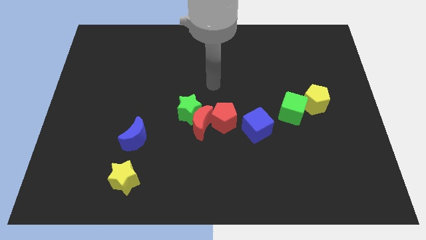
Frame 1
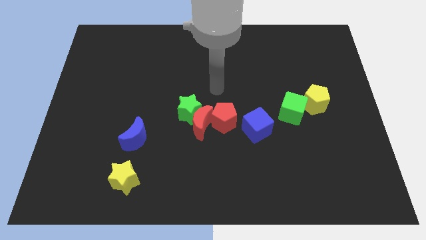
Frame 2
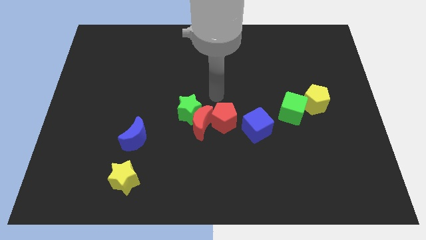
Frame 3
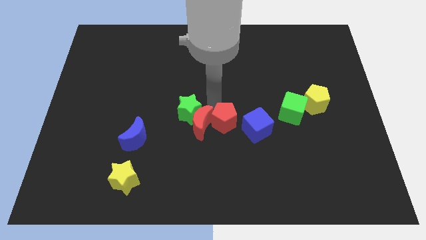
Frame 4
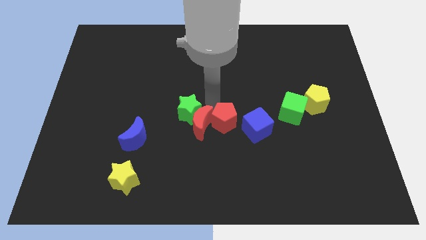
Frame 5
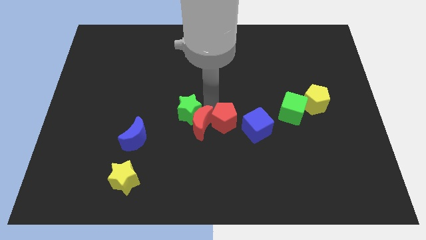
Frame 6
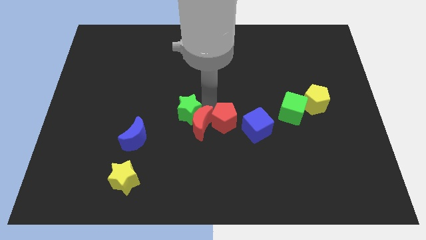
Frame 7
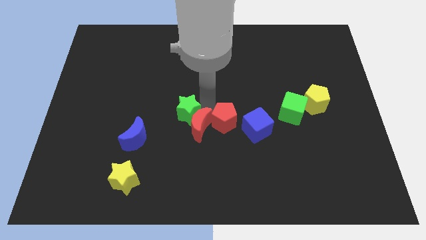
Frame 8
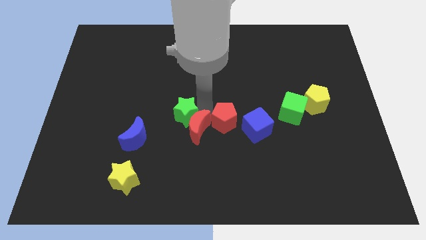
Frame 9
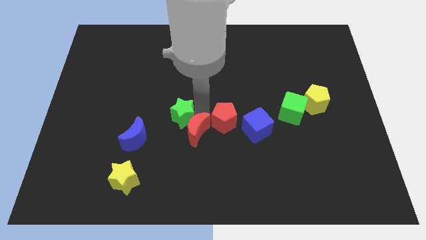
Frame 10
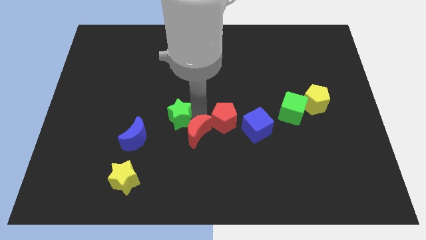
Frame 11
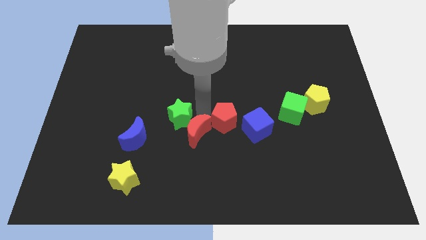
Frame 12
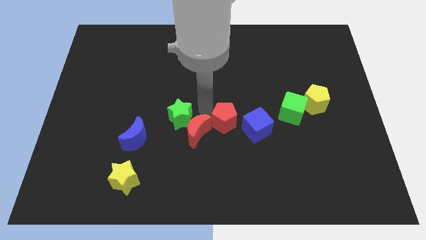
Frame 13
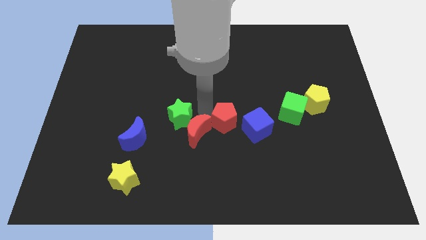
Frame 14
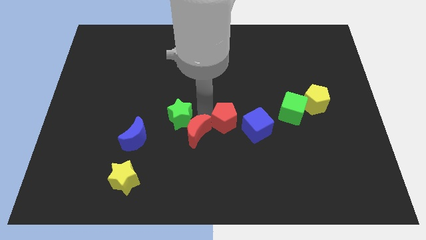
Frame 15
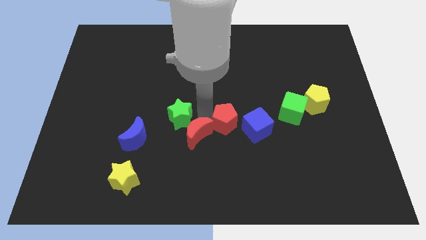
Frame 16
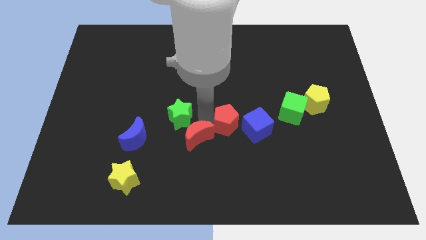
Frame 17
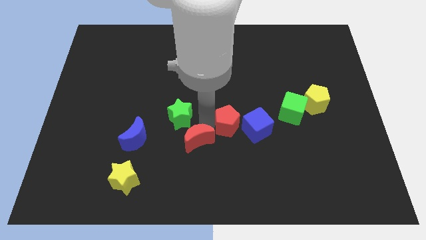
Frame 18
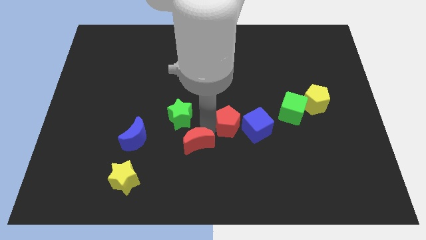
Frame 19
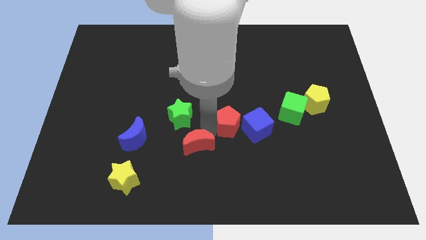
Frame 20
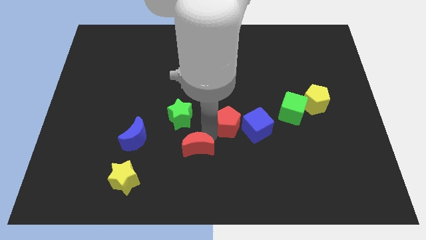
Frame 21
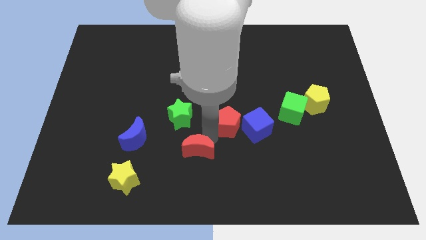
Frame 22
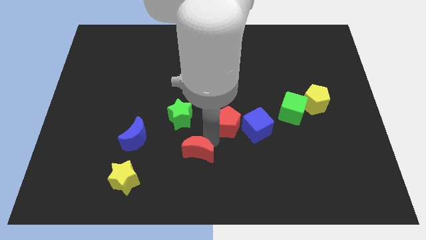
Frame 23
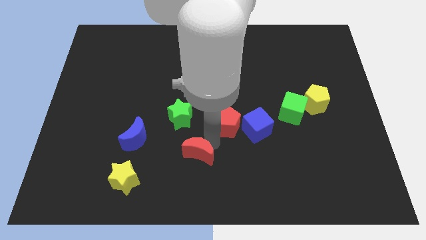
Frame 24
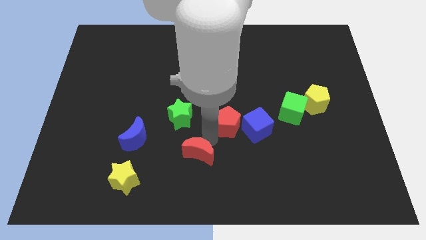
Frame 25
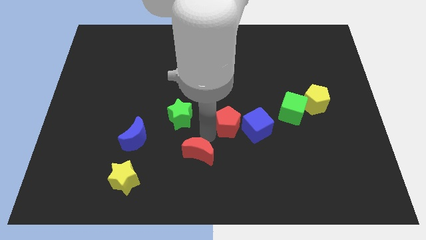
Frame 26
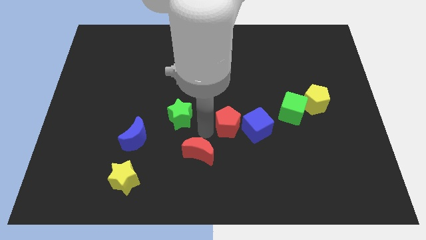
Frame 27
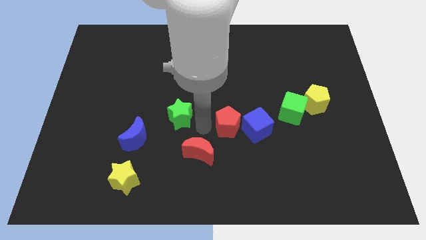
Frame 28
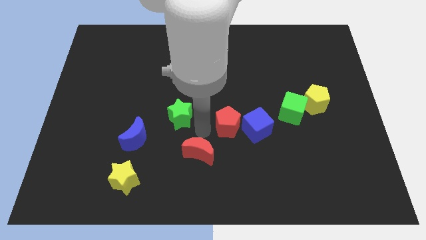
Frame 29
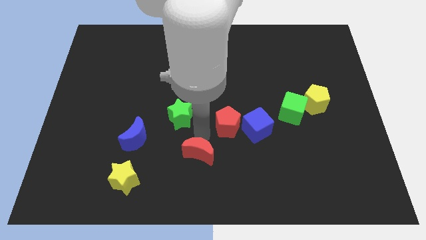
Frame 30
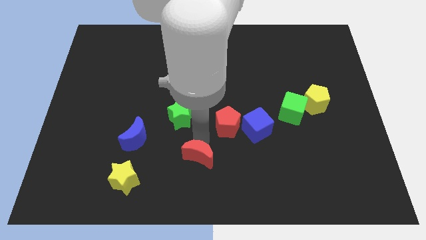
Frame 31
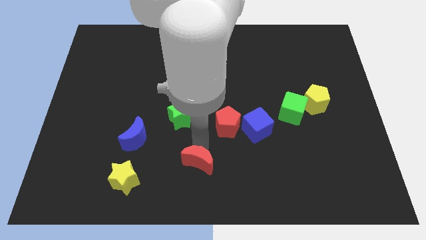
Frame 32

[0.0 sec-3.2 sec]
move the red moon away from the green star and red pentagon

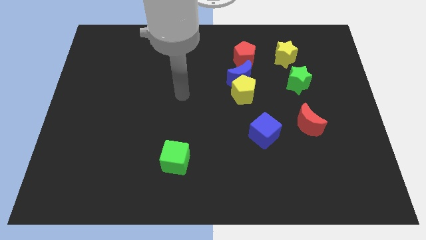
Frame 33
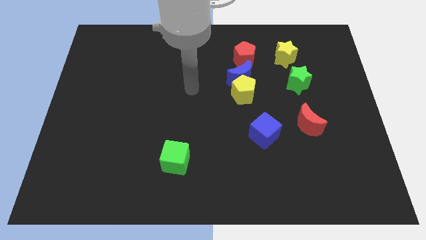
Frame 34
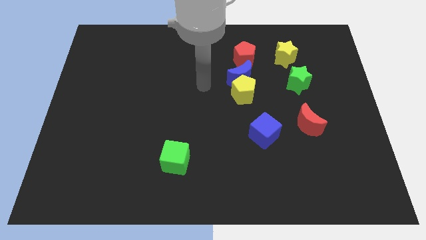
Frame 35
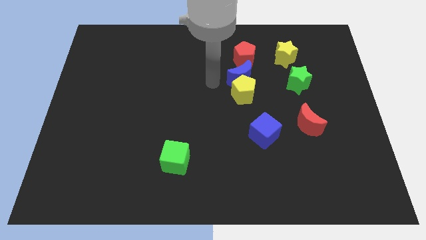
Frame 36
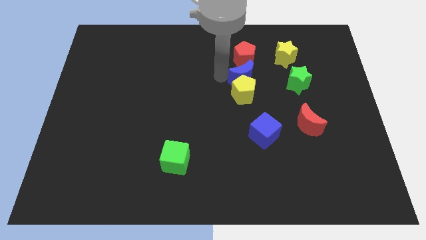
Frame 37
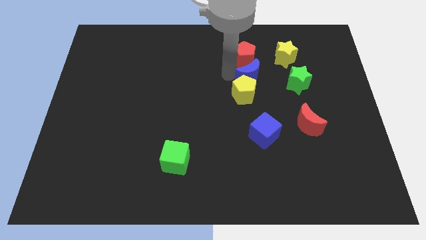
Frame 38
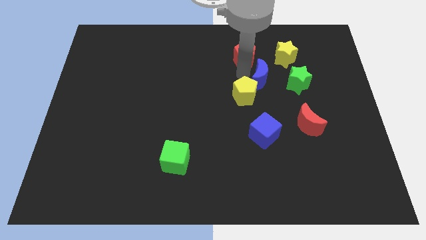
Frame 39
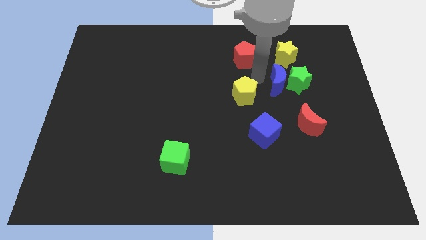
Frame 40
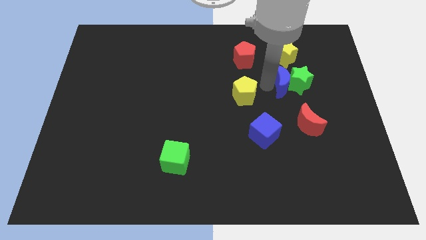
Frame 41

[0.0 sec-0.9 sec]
pull the yellow pentagon apart from the blue moon

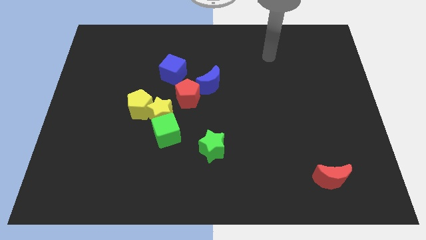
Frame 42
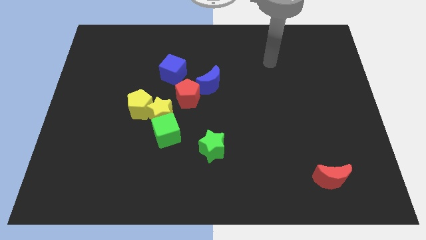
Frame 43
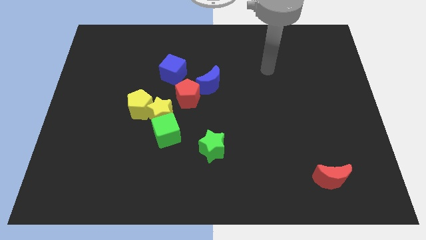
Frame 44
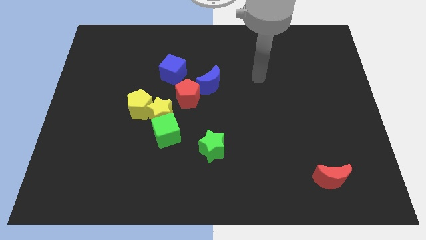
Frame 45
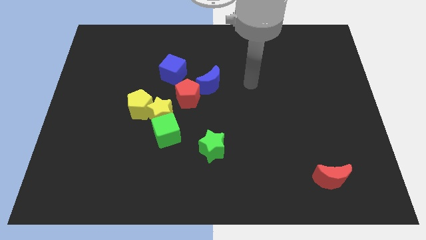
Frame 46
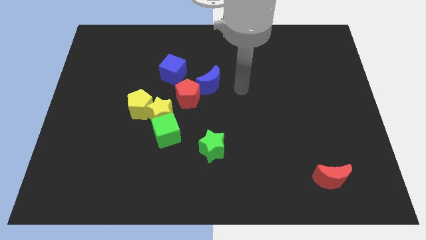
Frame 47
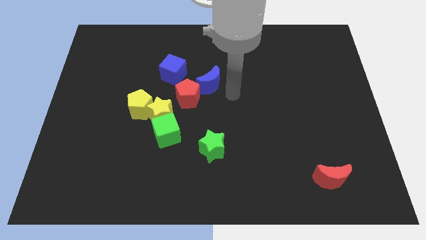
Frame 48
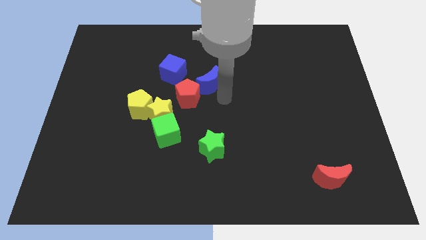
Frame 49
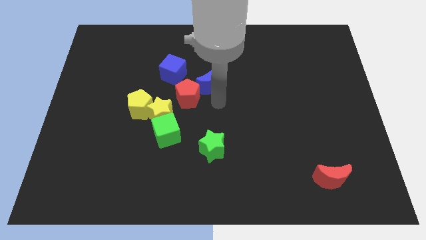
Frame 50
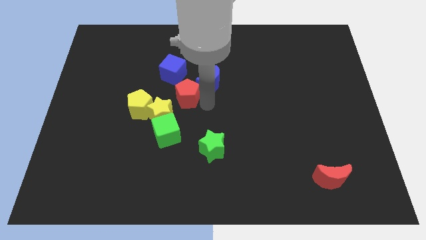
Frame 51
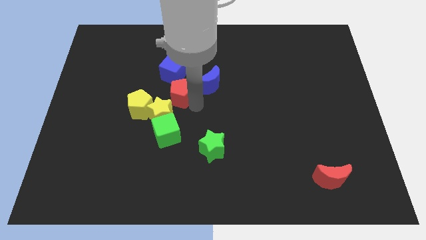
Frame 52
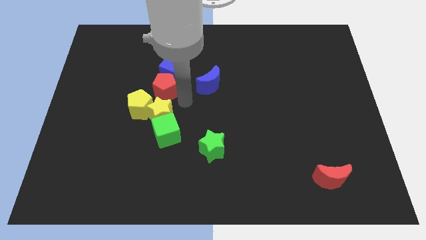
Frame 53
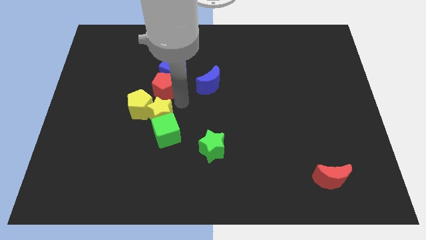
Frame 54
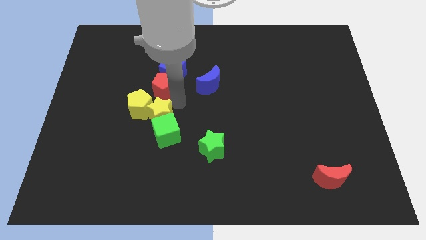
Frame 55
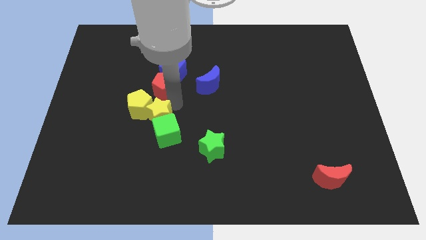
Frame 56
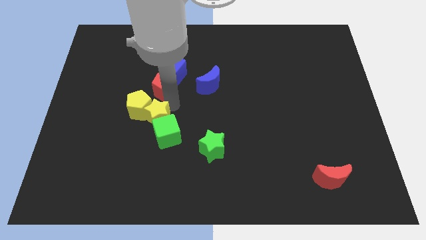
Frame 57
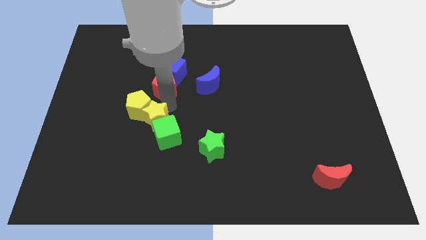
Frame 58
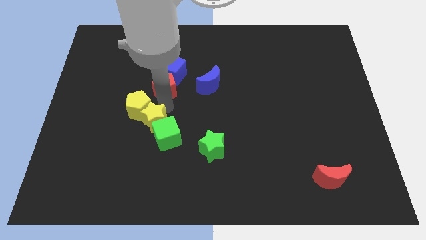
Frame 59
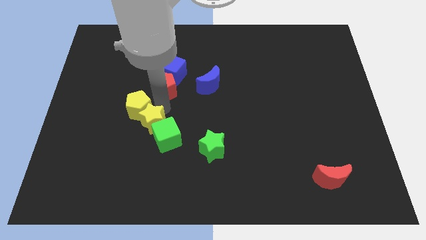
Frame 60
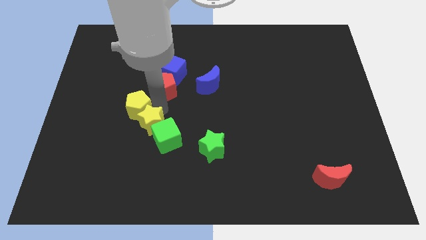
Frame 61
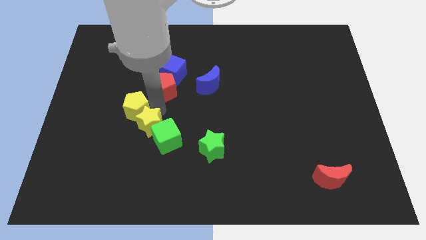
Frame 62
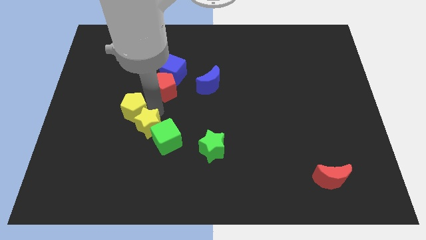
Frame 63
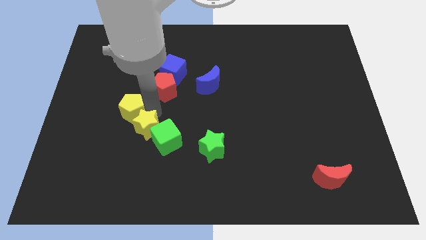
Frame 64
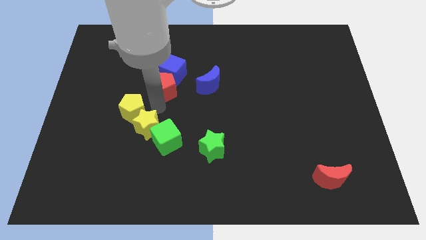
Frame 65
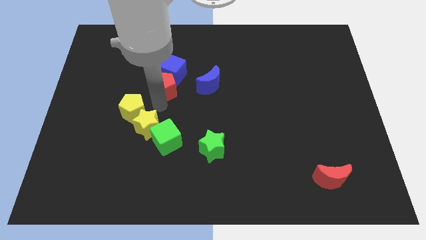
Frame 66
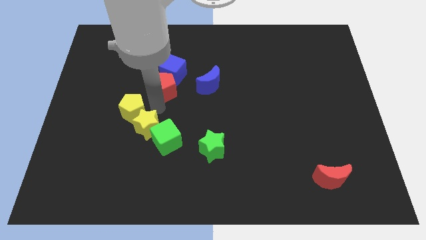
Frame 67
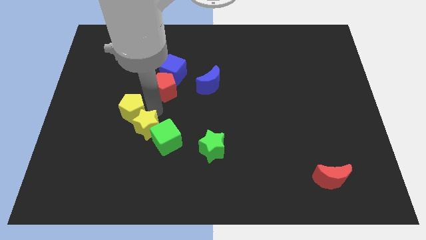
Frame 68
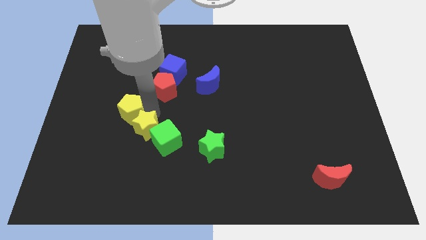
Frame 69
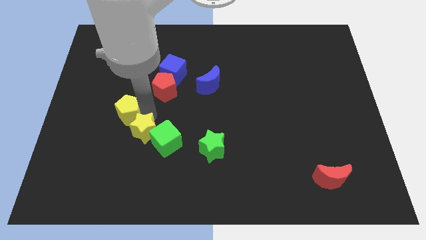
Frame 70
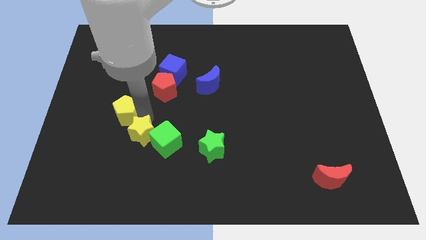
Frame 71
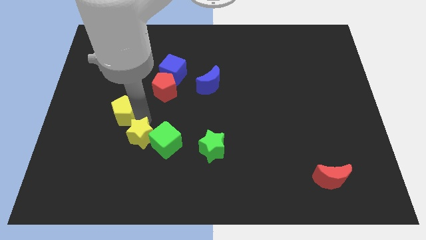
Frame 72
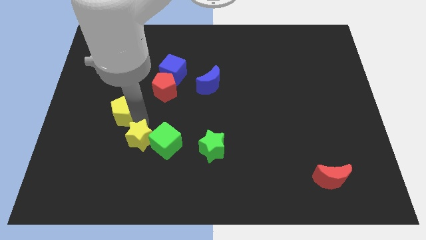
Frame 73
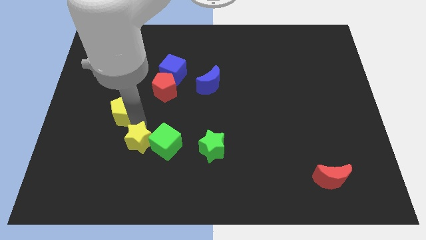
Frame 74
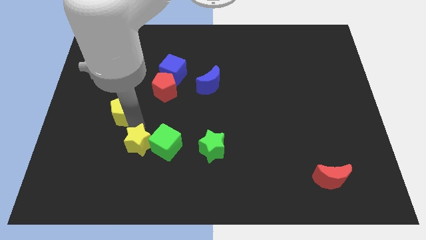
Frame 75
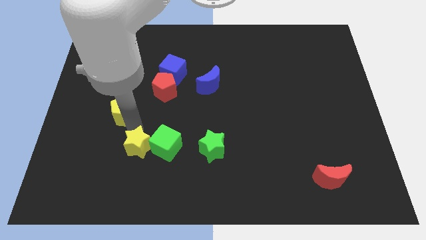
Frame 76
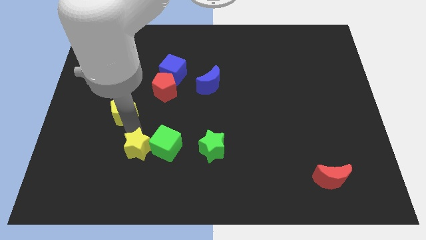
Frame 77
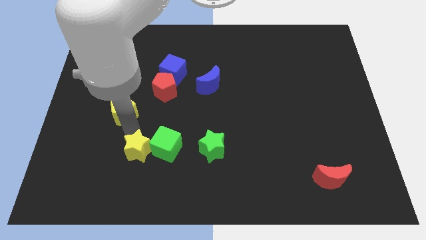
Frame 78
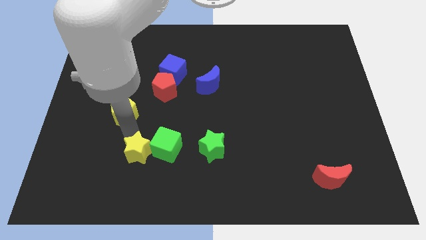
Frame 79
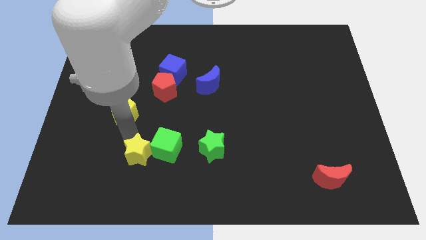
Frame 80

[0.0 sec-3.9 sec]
move the yellow star away from the group of blocks

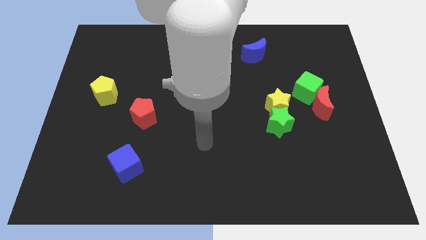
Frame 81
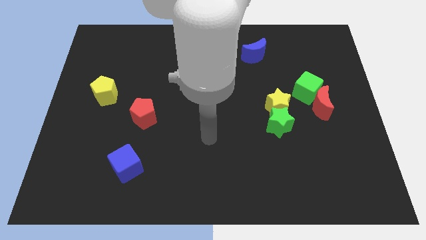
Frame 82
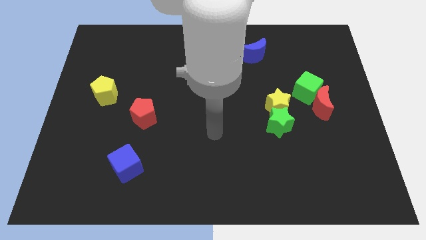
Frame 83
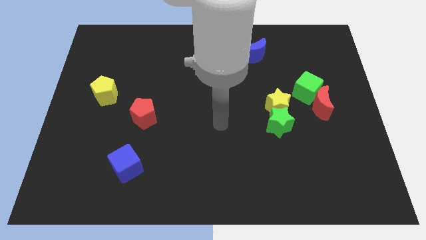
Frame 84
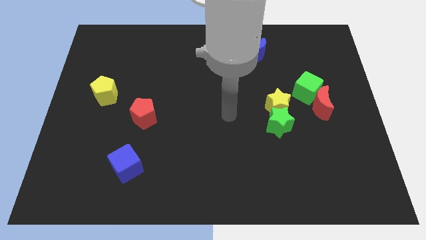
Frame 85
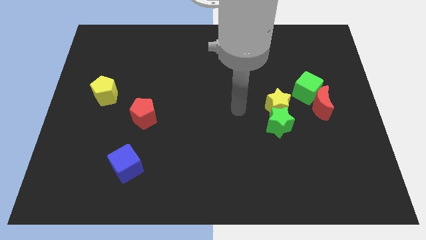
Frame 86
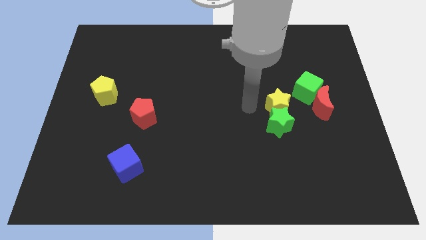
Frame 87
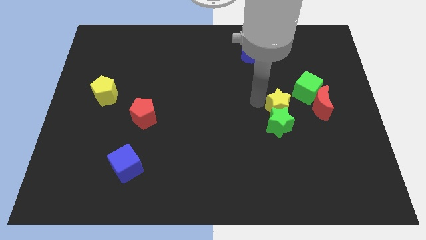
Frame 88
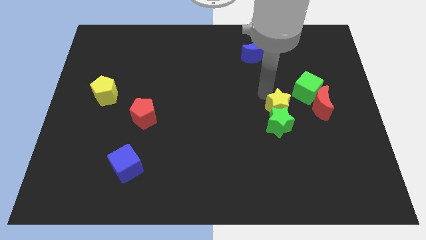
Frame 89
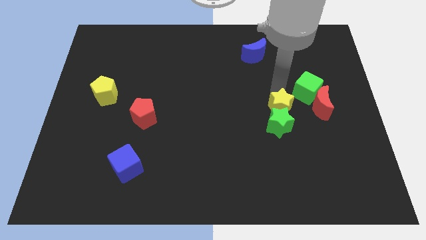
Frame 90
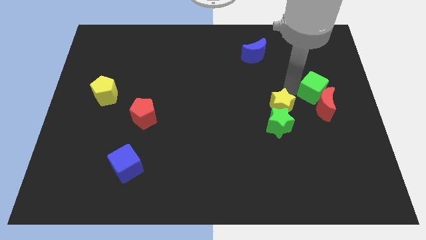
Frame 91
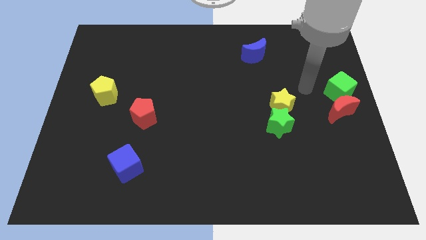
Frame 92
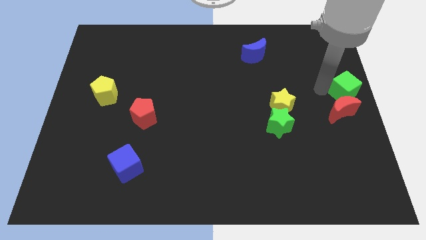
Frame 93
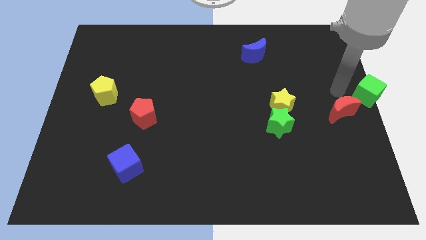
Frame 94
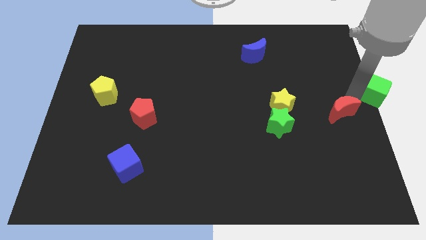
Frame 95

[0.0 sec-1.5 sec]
move the red moon away from the green cube
